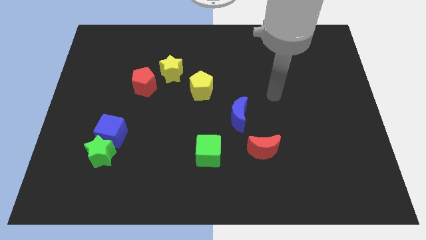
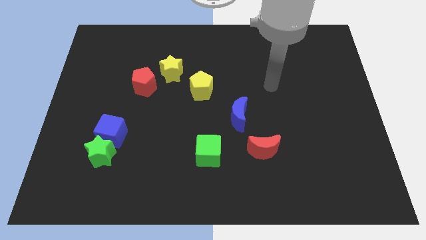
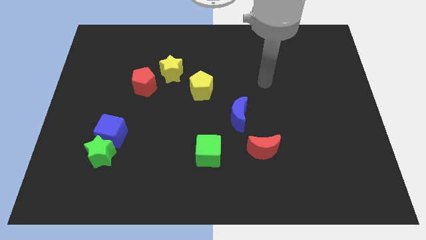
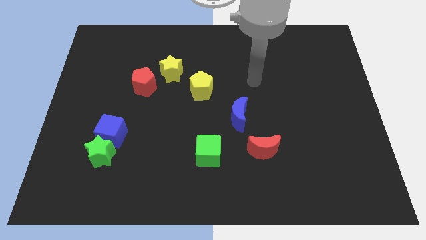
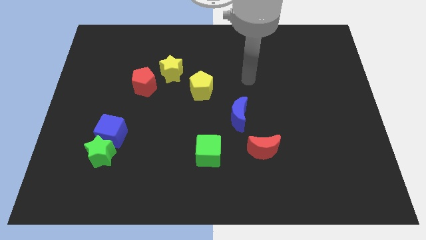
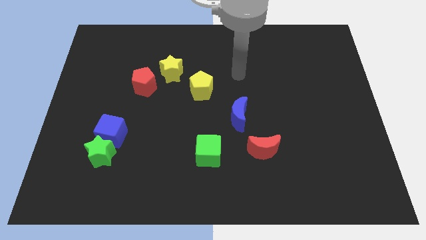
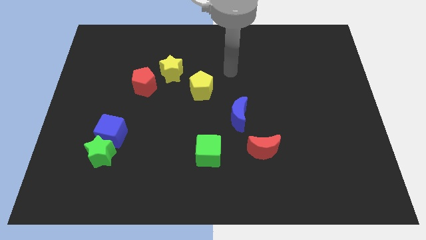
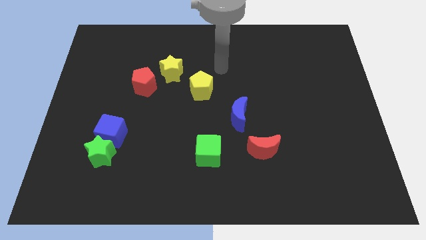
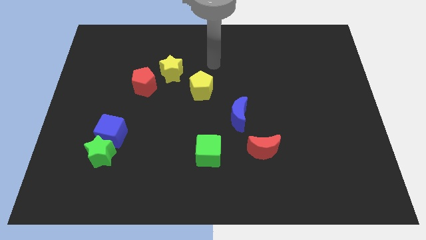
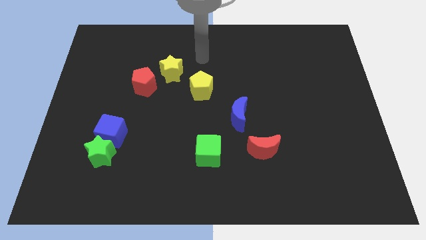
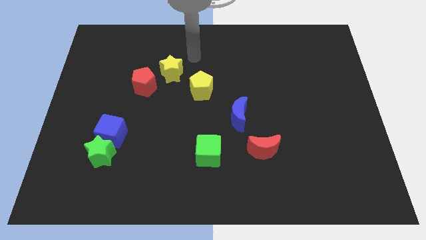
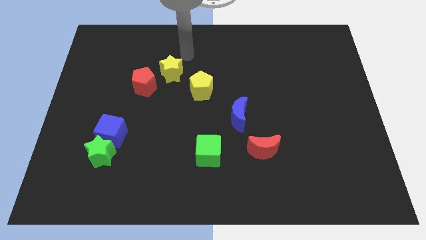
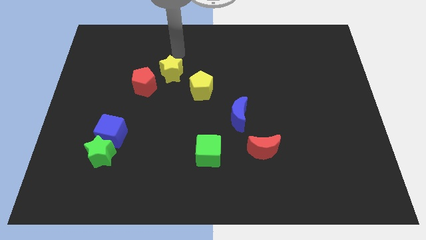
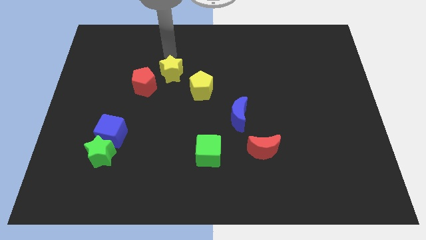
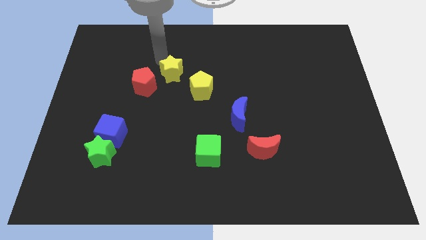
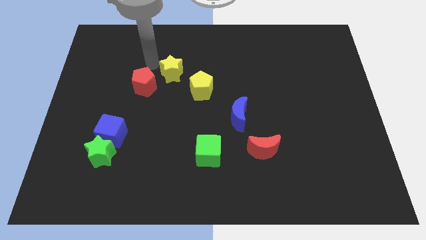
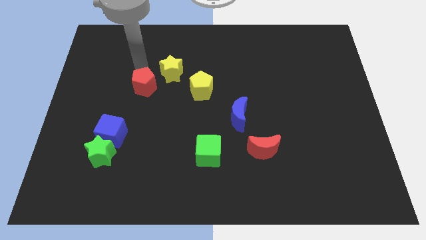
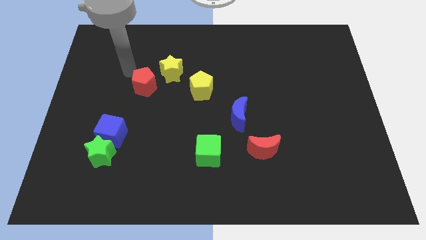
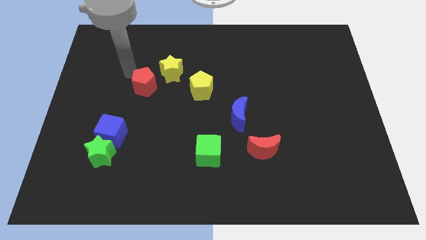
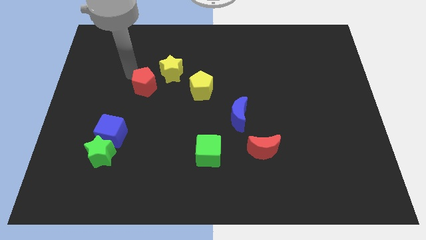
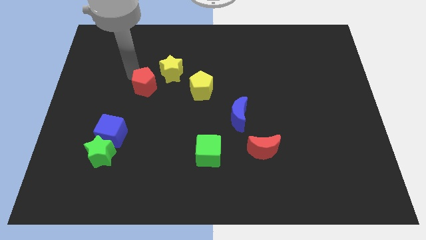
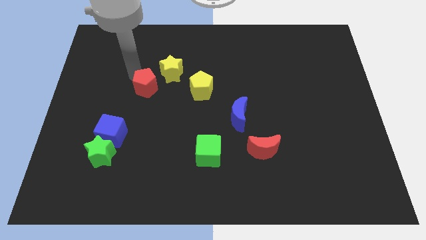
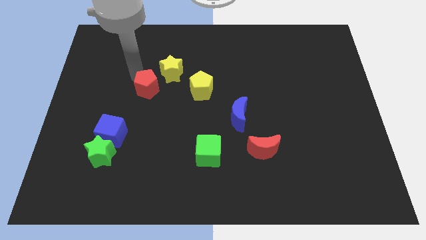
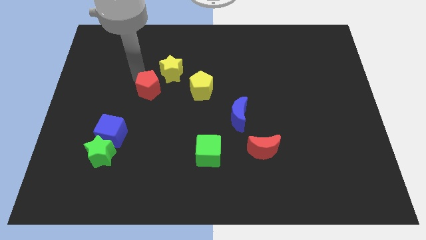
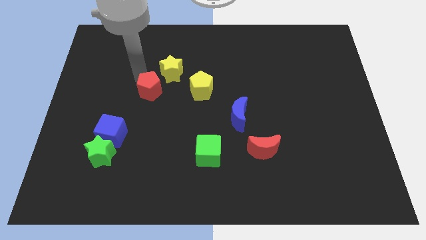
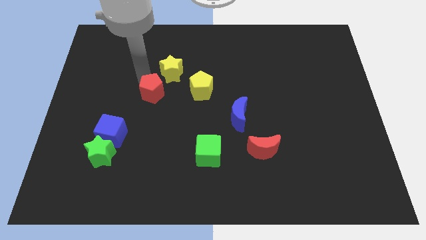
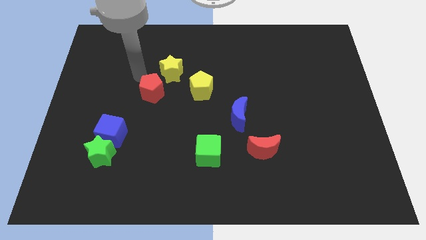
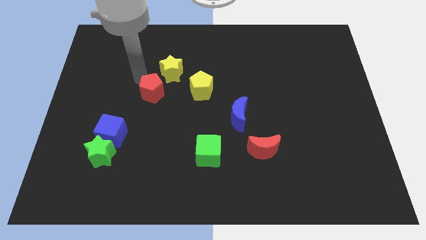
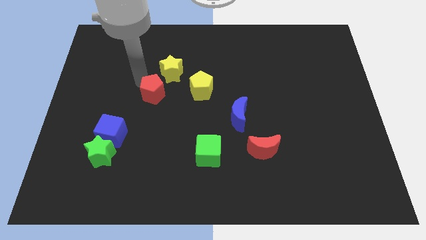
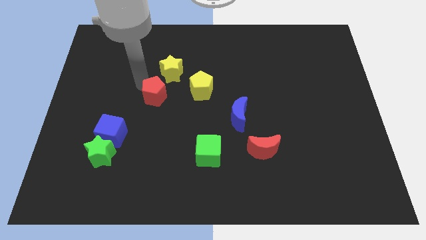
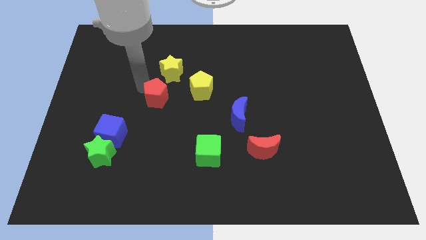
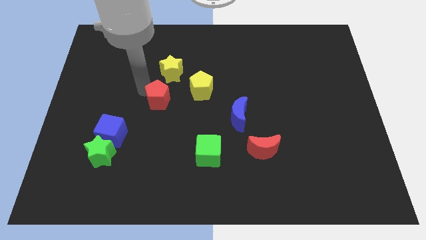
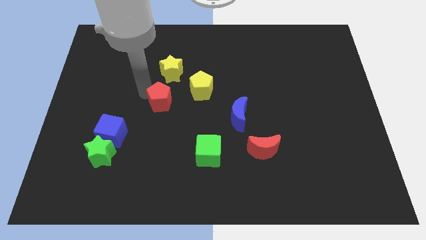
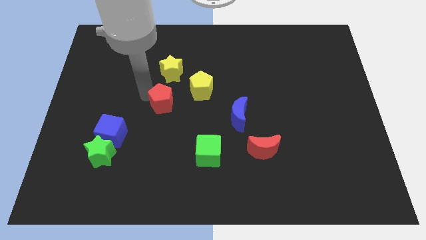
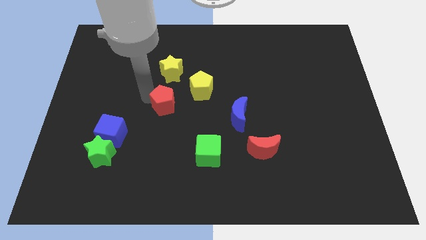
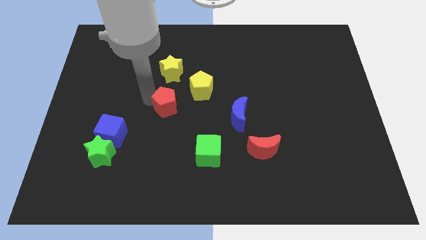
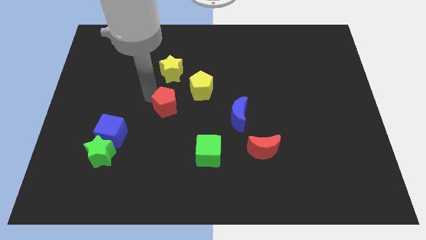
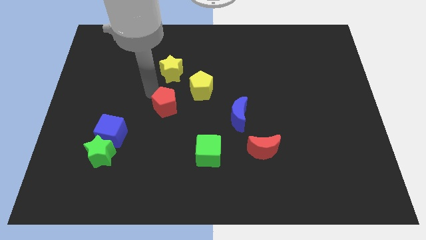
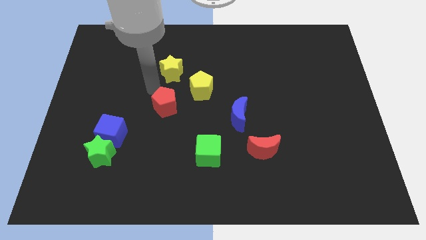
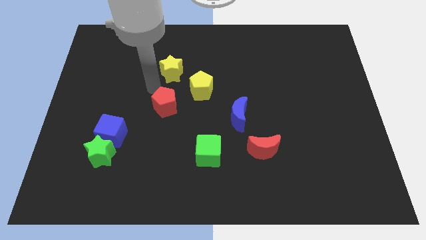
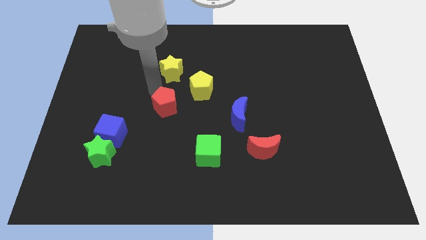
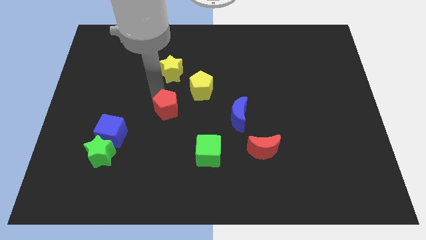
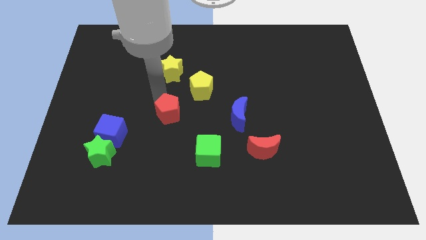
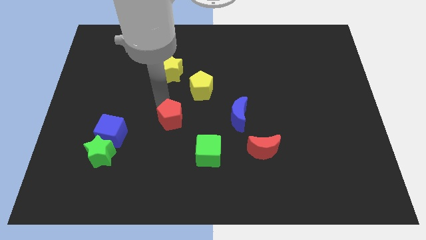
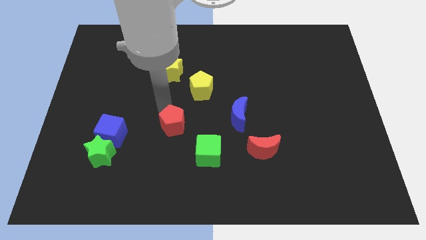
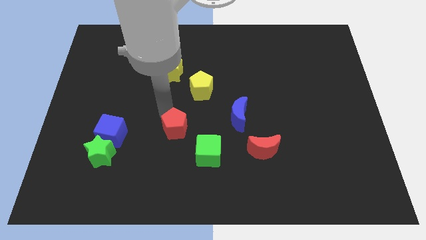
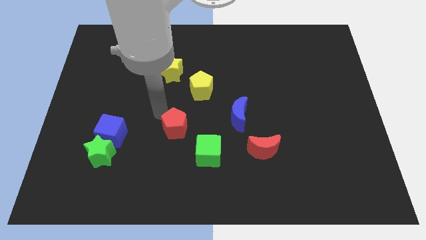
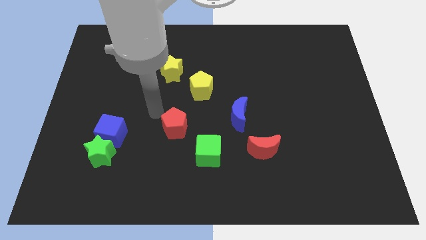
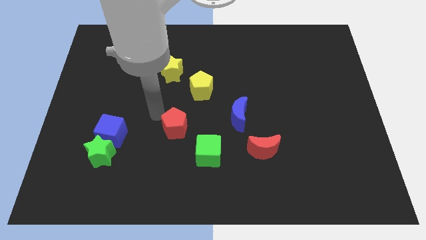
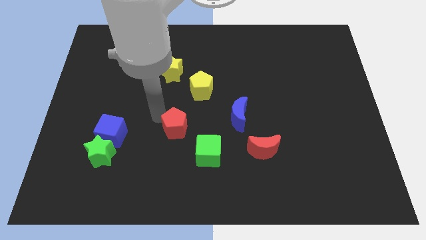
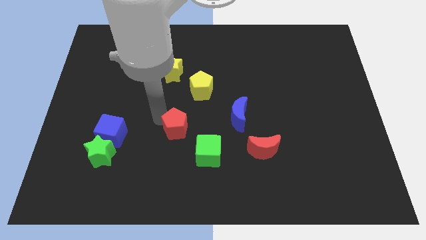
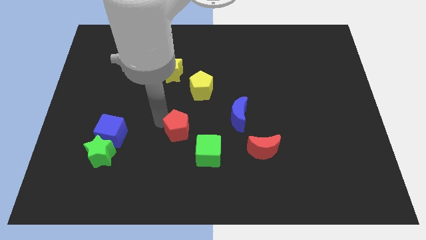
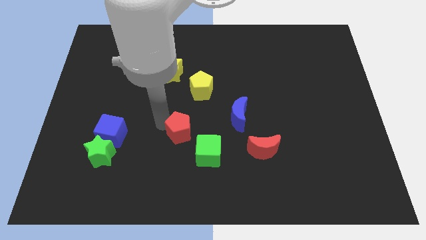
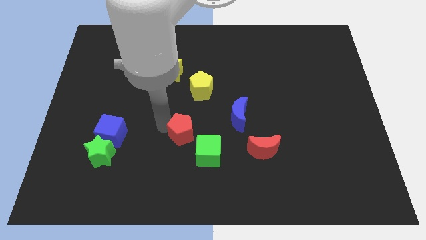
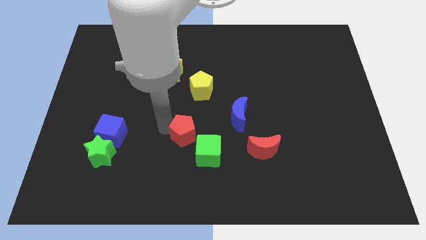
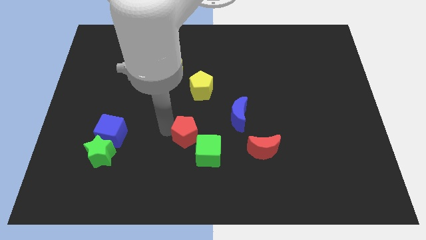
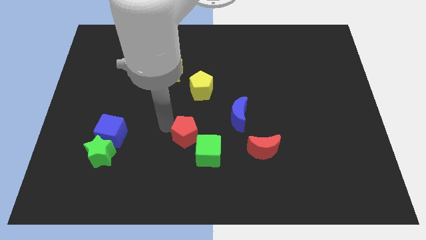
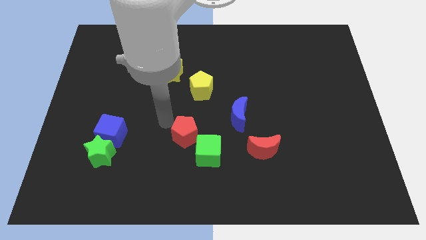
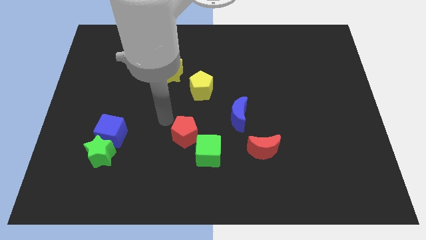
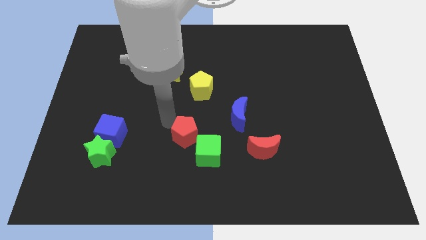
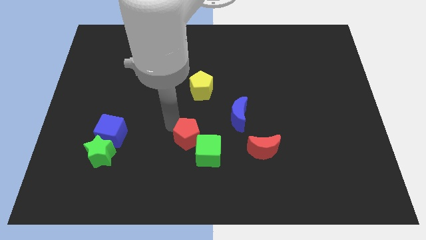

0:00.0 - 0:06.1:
move the red pentagon close to the green cube

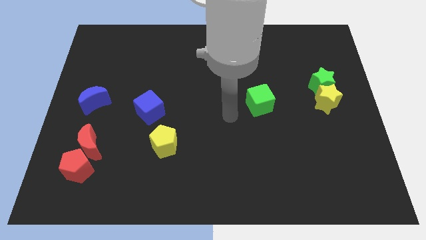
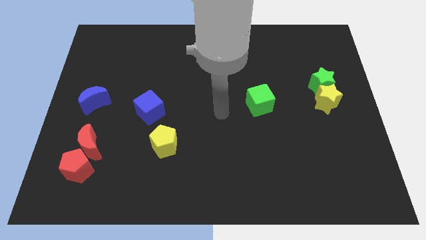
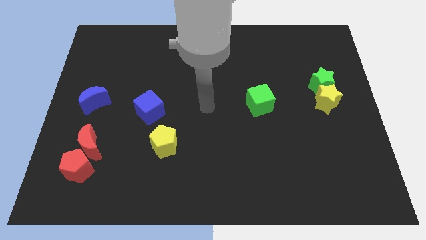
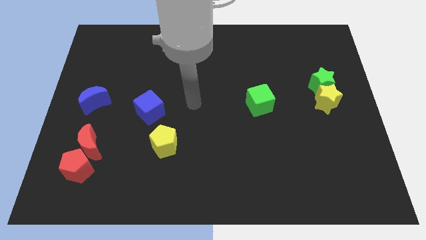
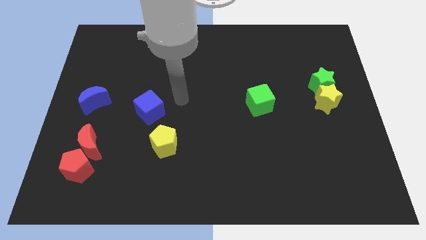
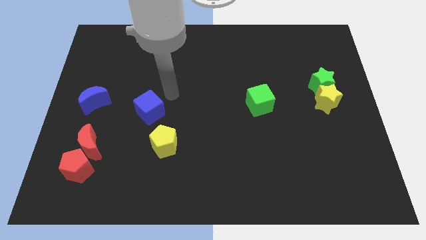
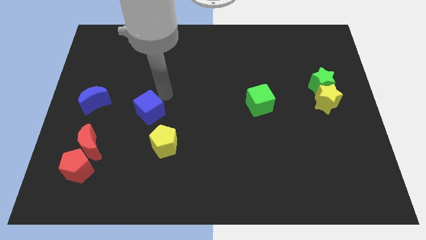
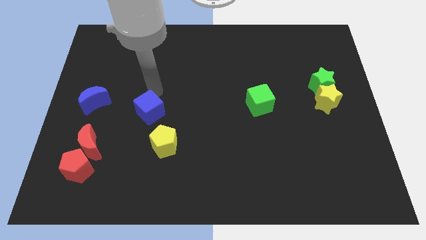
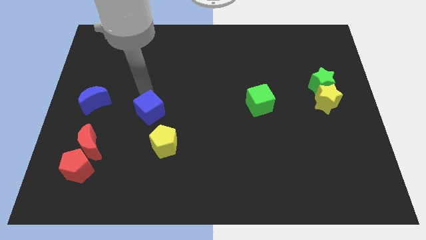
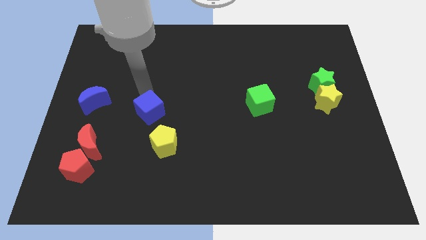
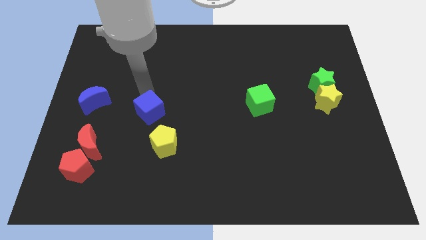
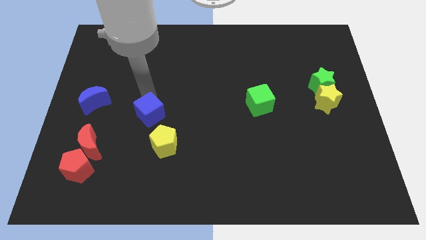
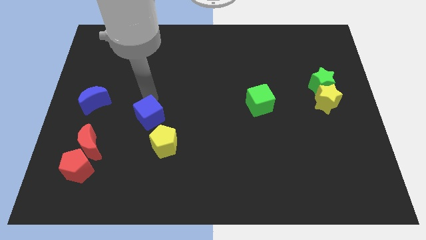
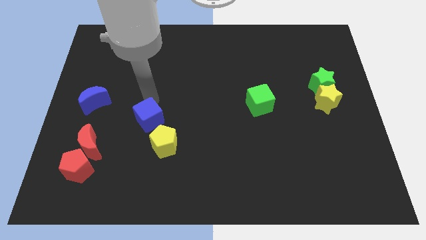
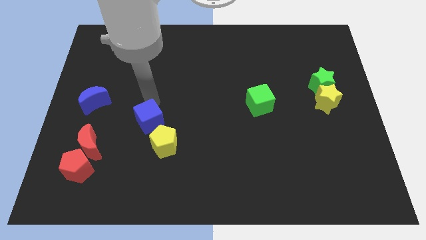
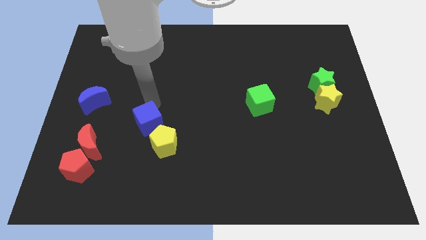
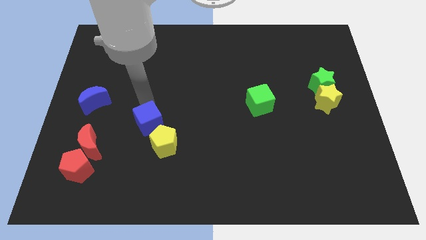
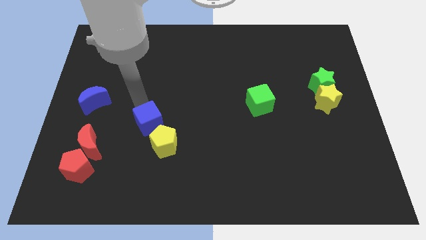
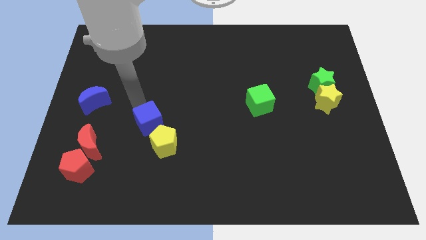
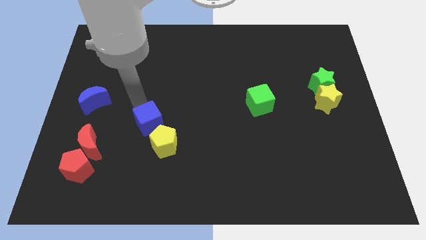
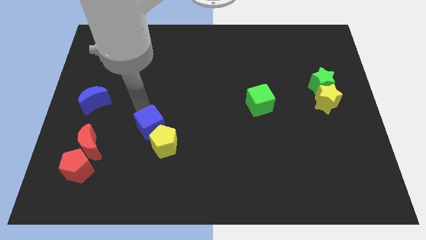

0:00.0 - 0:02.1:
put the blue cube towards the yellow pentagon
